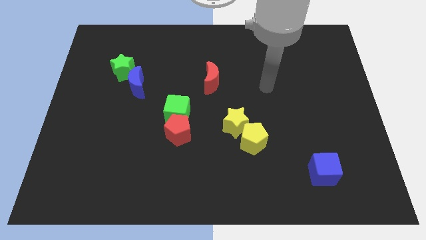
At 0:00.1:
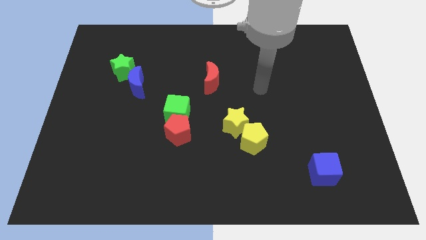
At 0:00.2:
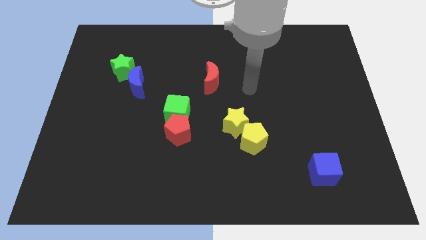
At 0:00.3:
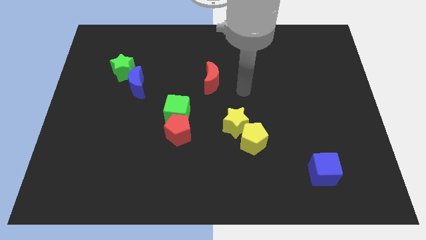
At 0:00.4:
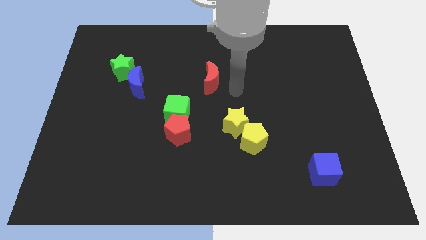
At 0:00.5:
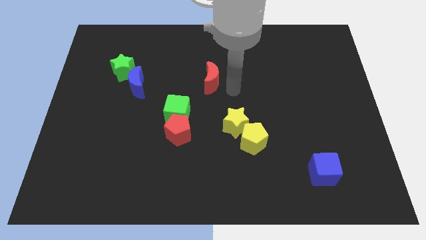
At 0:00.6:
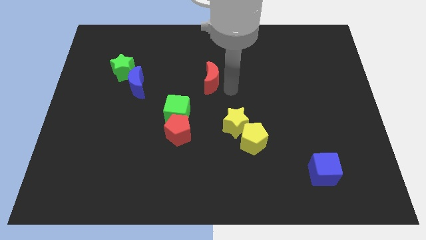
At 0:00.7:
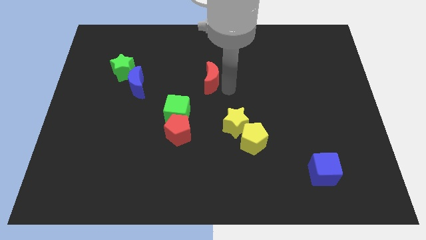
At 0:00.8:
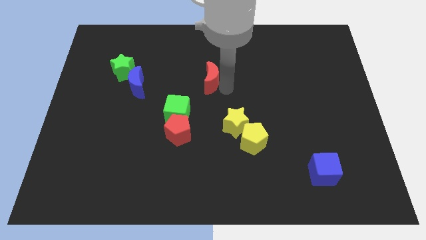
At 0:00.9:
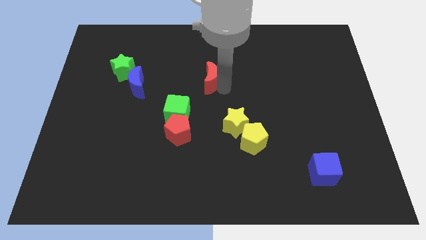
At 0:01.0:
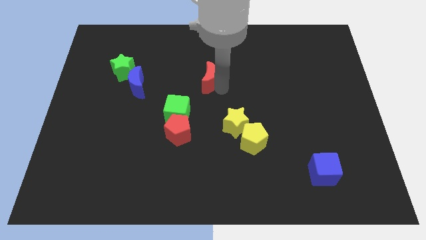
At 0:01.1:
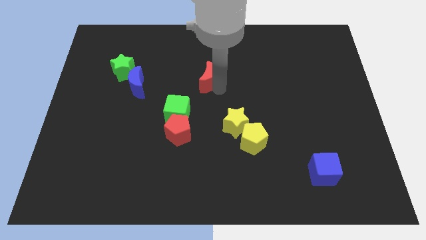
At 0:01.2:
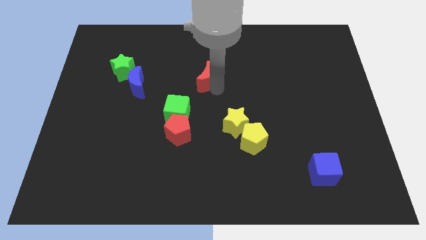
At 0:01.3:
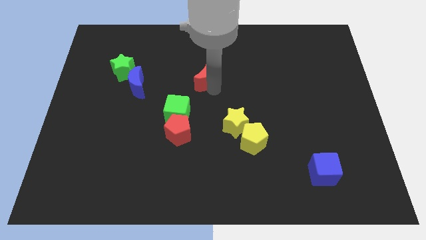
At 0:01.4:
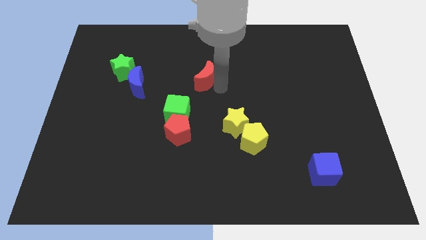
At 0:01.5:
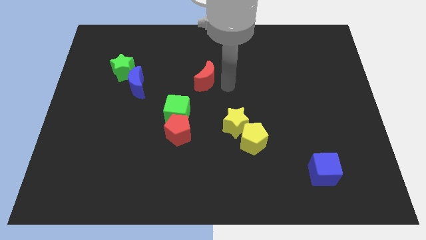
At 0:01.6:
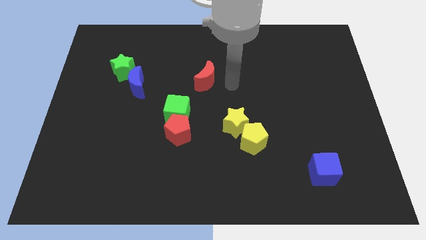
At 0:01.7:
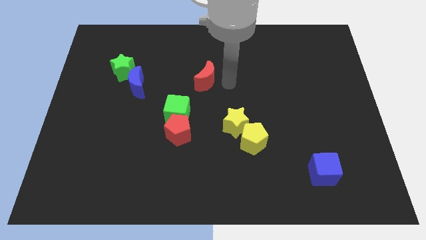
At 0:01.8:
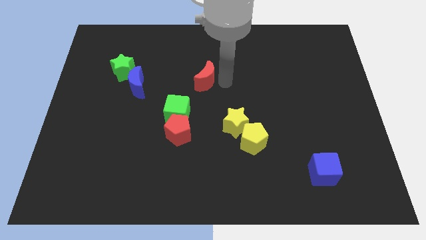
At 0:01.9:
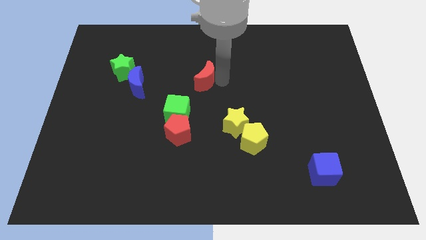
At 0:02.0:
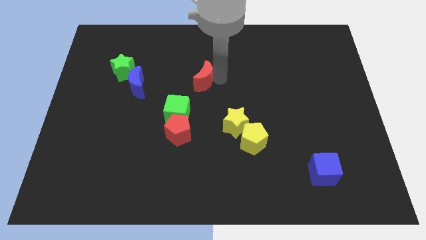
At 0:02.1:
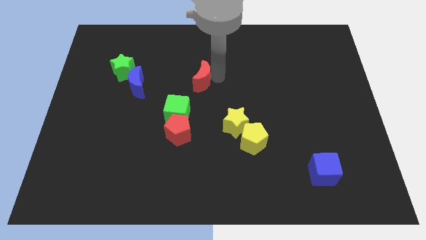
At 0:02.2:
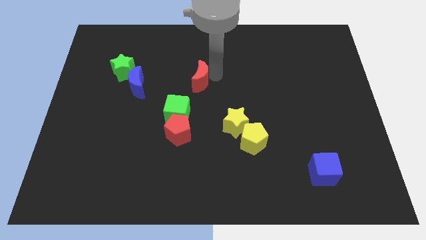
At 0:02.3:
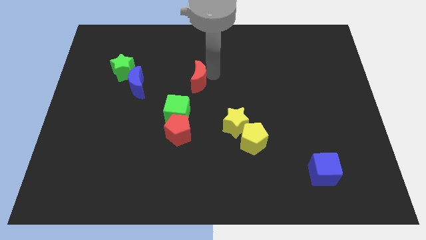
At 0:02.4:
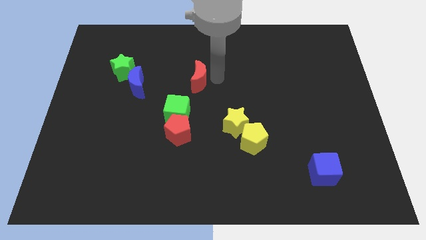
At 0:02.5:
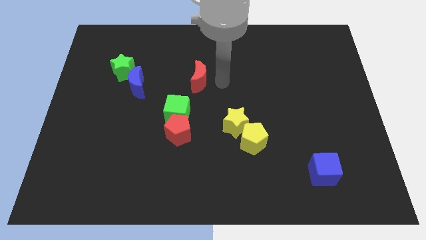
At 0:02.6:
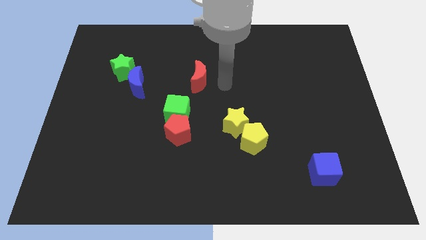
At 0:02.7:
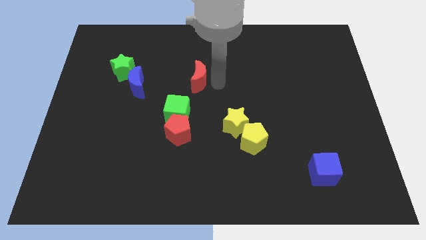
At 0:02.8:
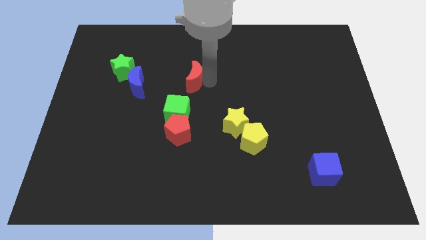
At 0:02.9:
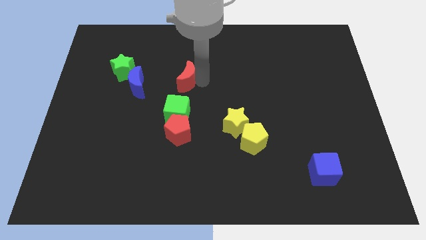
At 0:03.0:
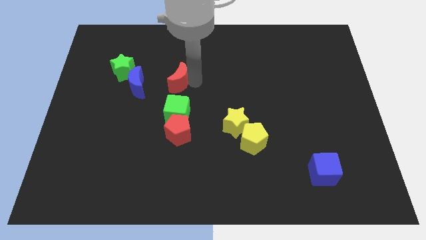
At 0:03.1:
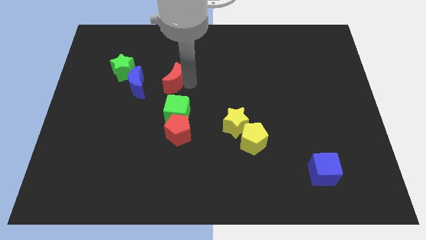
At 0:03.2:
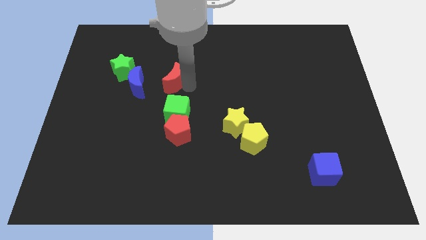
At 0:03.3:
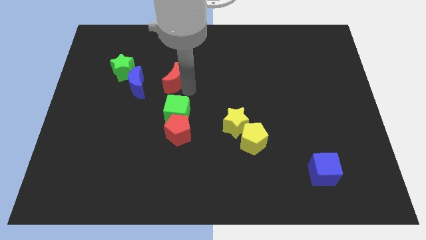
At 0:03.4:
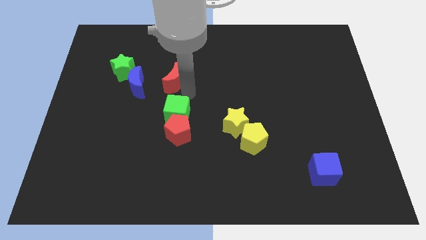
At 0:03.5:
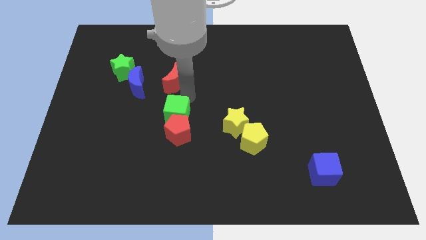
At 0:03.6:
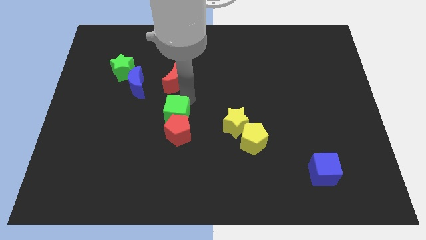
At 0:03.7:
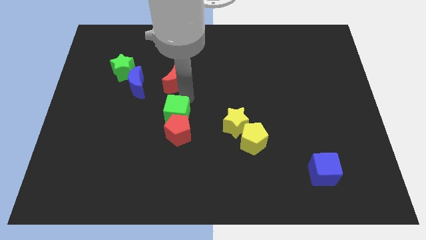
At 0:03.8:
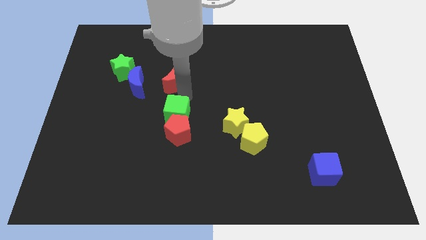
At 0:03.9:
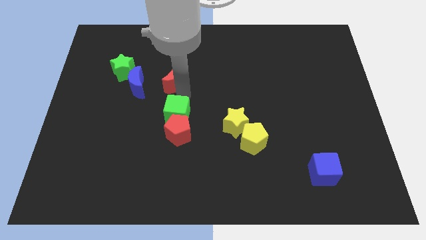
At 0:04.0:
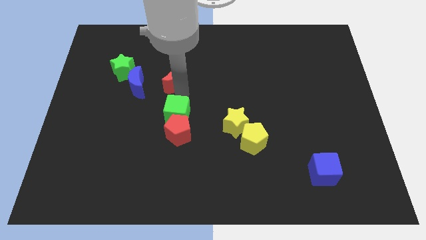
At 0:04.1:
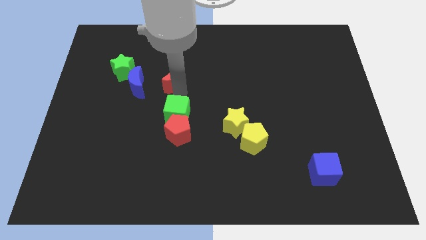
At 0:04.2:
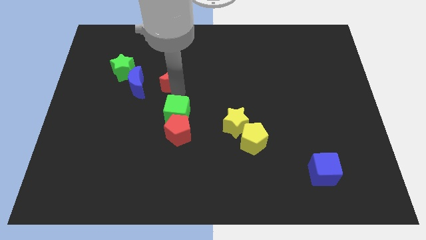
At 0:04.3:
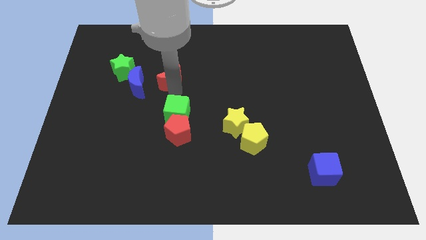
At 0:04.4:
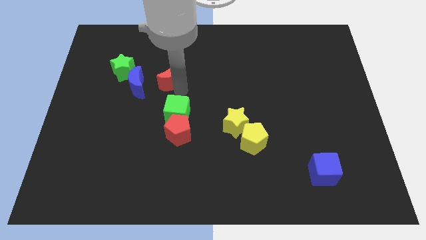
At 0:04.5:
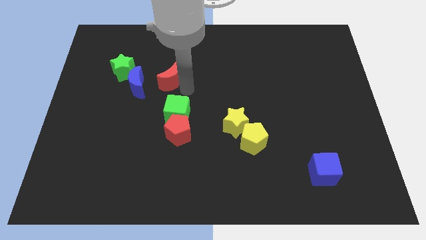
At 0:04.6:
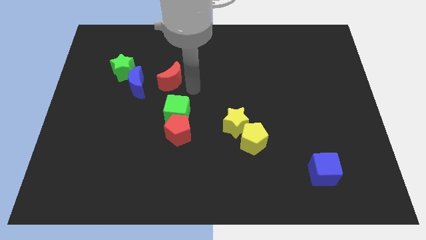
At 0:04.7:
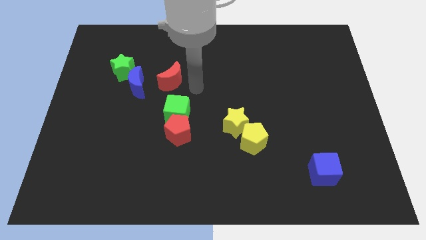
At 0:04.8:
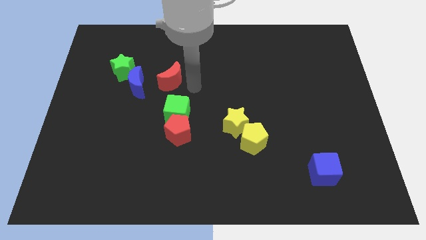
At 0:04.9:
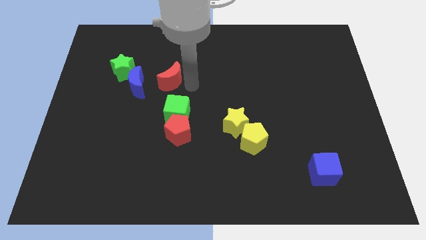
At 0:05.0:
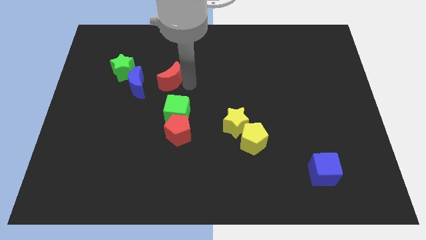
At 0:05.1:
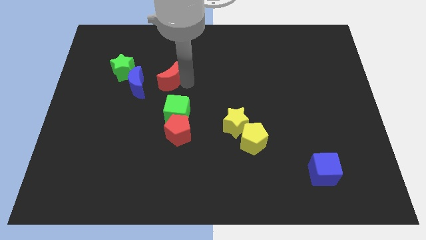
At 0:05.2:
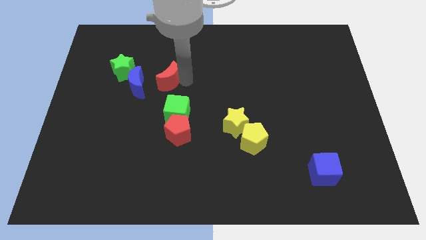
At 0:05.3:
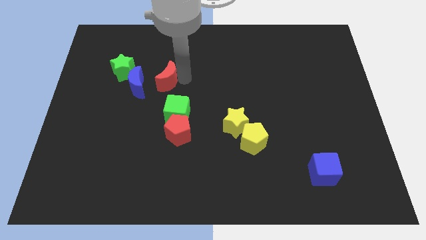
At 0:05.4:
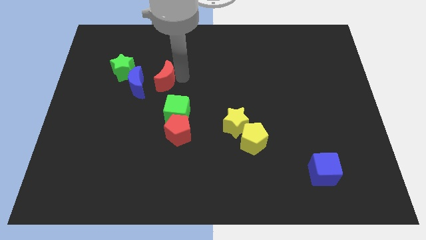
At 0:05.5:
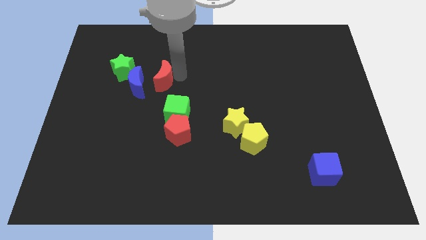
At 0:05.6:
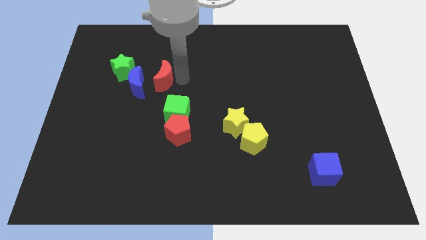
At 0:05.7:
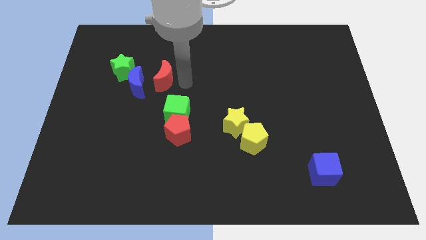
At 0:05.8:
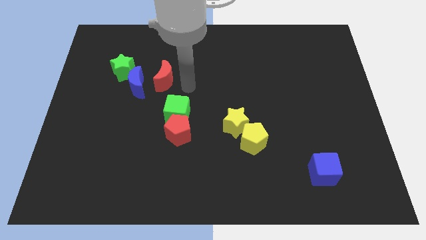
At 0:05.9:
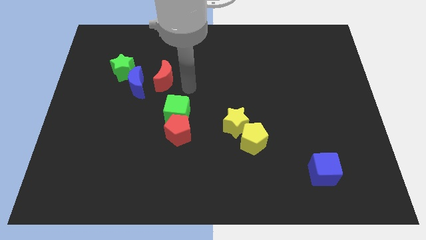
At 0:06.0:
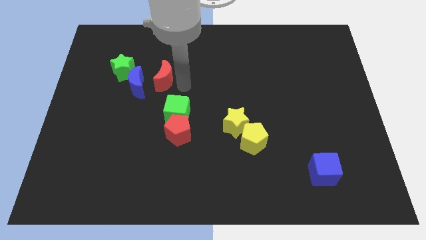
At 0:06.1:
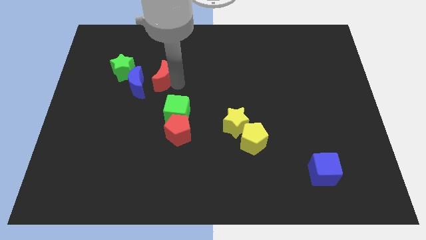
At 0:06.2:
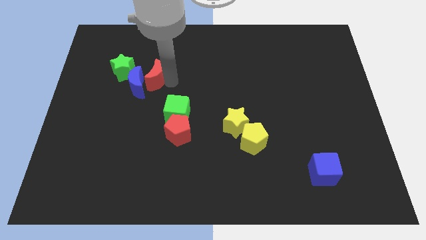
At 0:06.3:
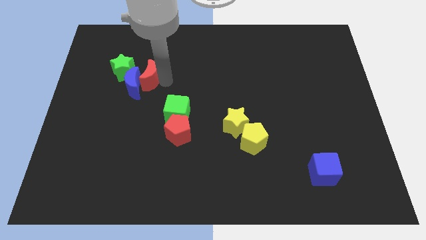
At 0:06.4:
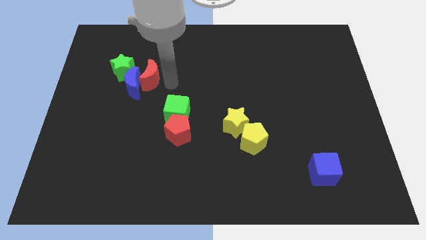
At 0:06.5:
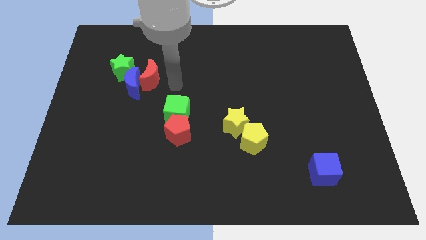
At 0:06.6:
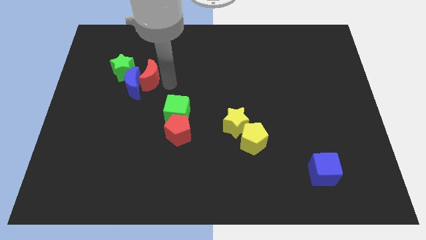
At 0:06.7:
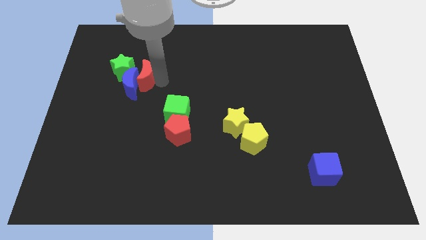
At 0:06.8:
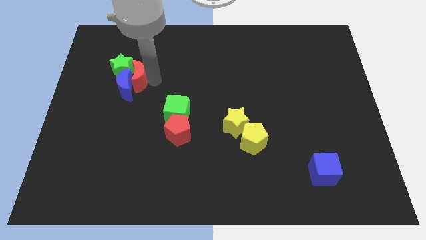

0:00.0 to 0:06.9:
slide the red moon towards the green star

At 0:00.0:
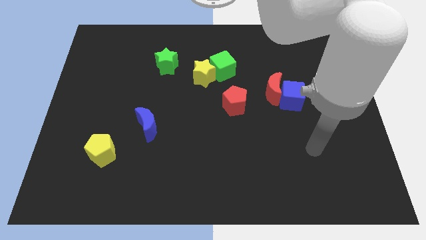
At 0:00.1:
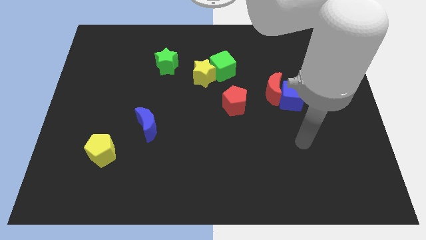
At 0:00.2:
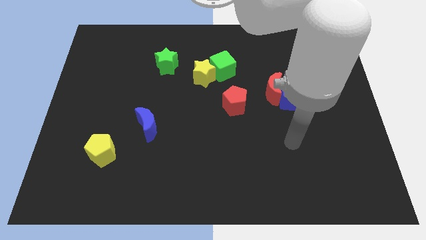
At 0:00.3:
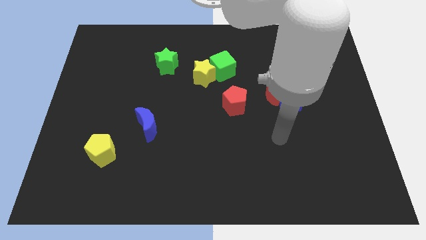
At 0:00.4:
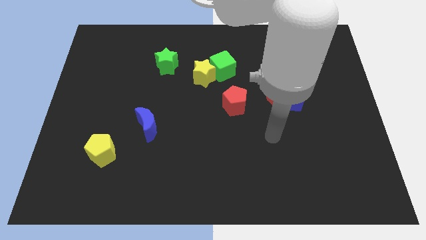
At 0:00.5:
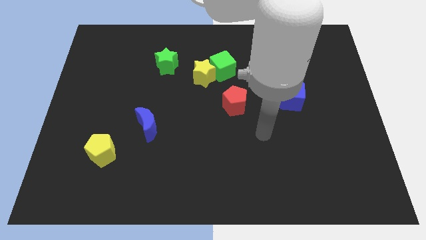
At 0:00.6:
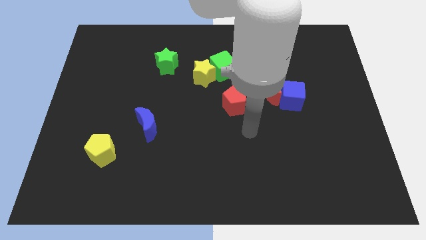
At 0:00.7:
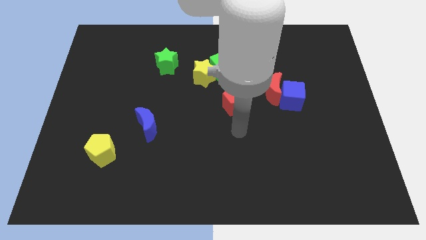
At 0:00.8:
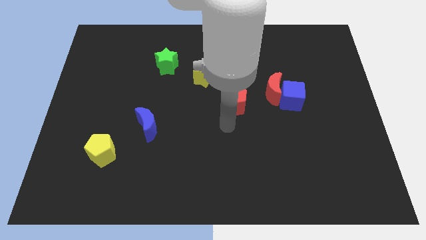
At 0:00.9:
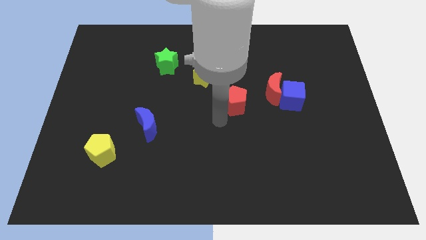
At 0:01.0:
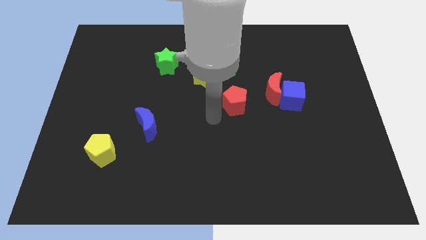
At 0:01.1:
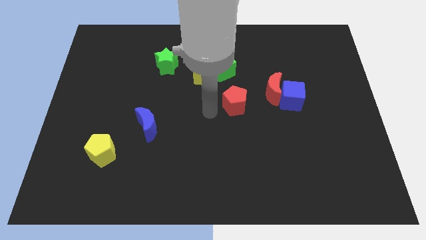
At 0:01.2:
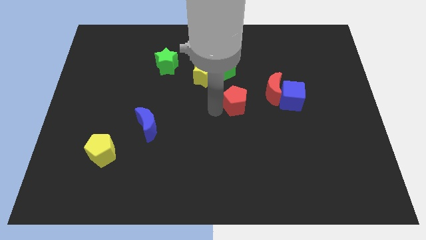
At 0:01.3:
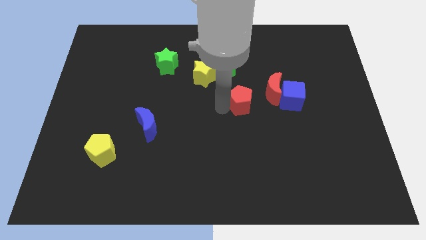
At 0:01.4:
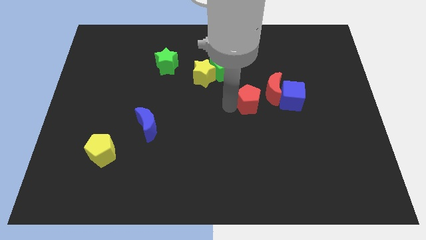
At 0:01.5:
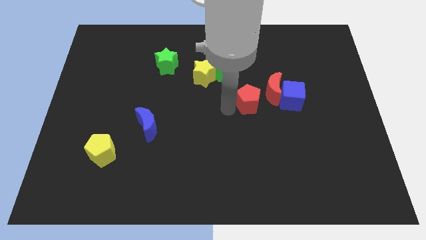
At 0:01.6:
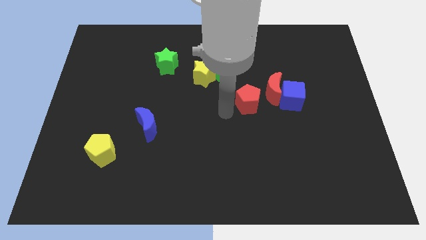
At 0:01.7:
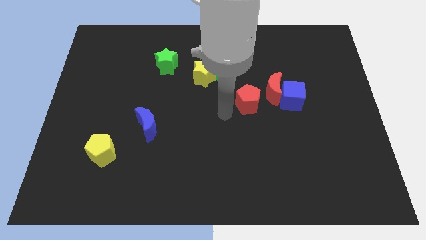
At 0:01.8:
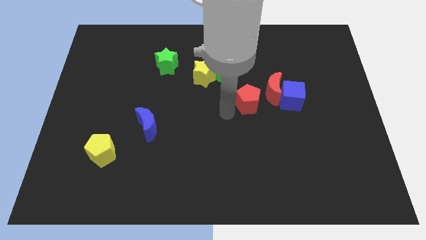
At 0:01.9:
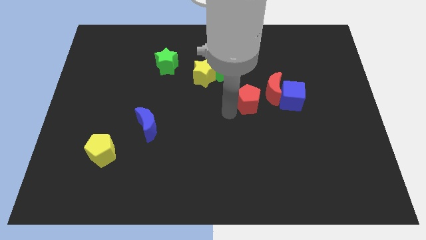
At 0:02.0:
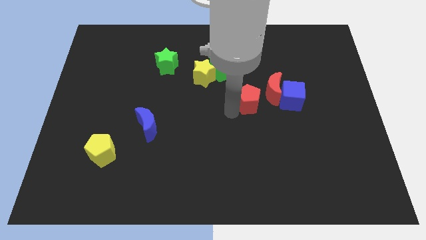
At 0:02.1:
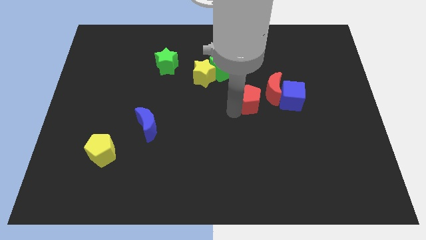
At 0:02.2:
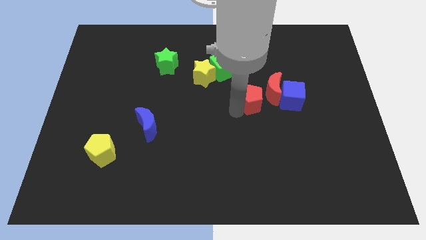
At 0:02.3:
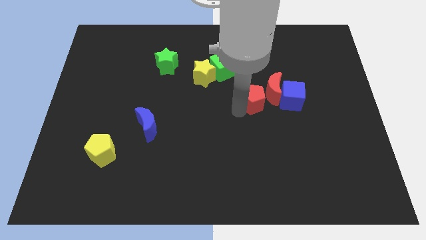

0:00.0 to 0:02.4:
move the red pentagon to the red moon
